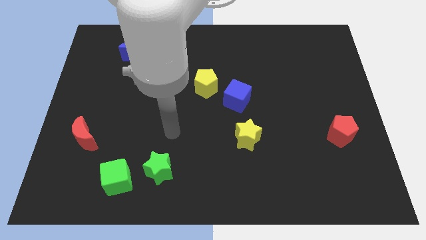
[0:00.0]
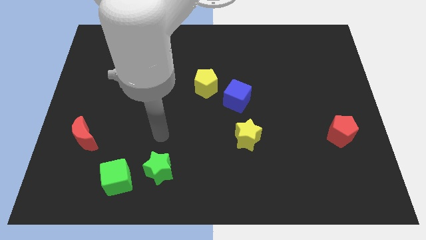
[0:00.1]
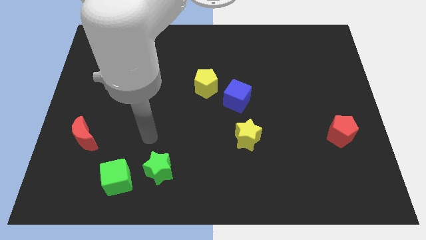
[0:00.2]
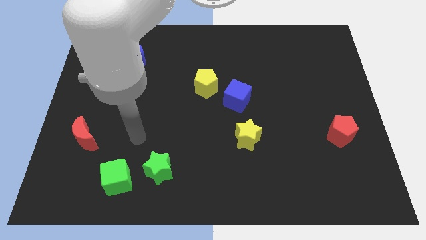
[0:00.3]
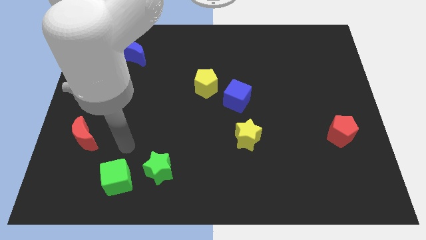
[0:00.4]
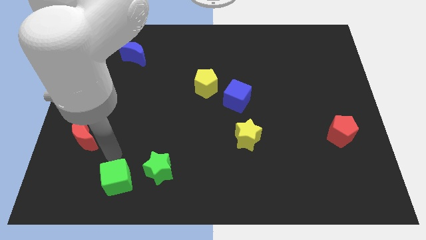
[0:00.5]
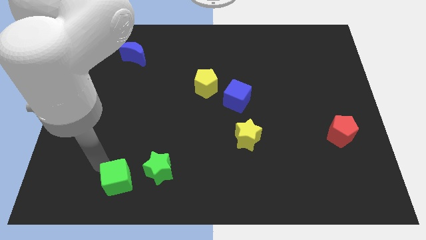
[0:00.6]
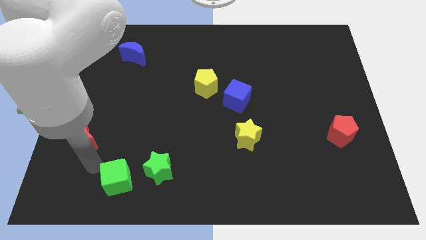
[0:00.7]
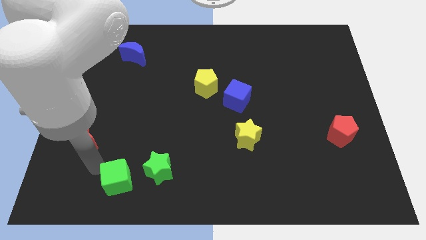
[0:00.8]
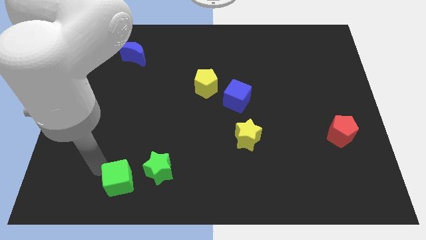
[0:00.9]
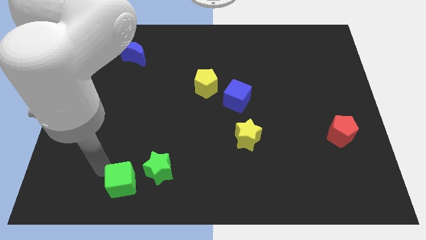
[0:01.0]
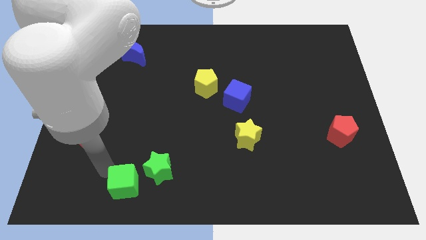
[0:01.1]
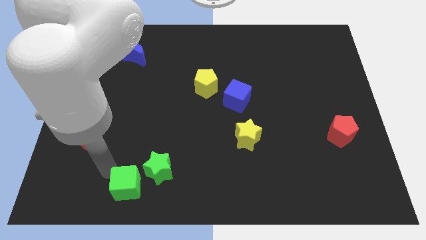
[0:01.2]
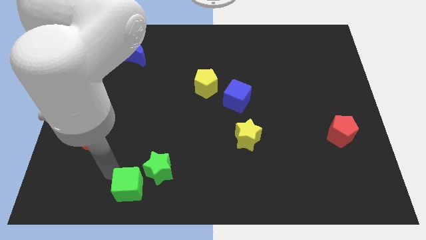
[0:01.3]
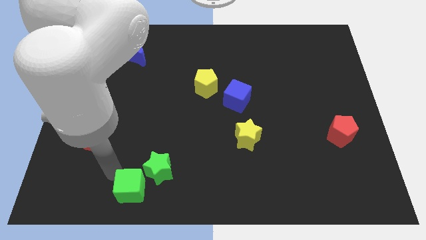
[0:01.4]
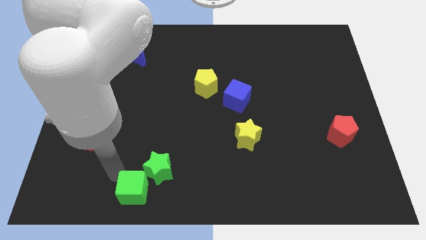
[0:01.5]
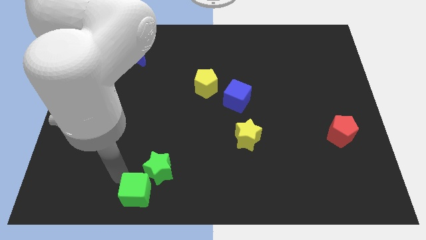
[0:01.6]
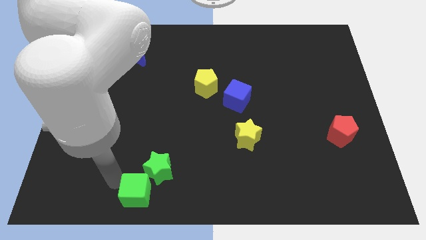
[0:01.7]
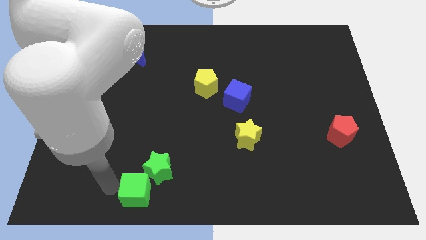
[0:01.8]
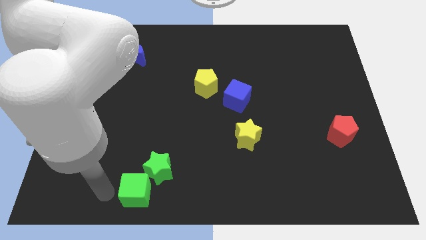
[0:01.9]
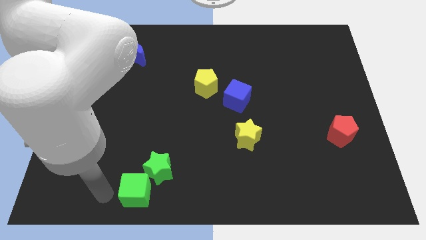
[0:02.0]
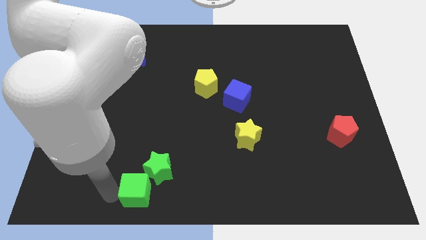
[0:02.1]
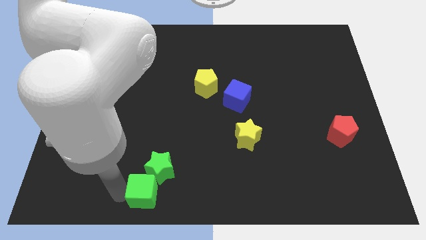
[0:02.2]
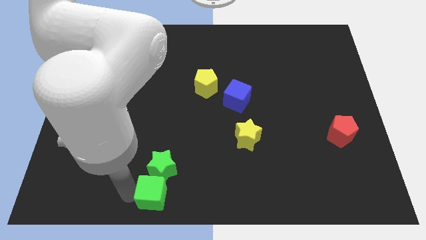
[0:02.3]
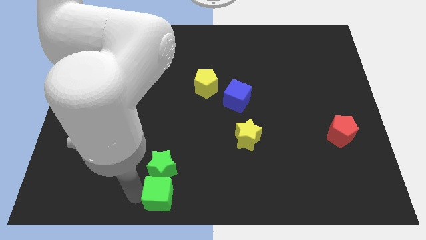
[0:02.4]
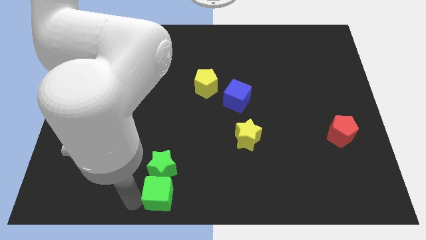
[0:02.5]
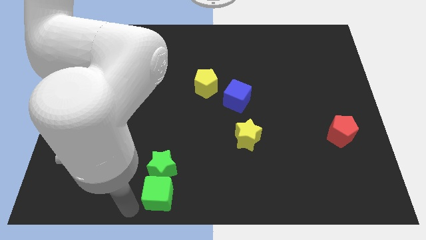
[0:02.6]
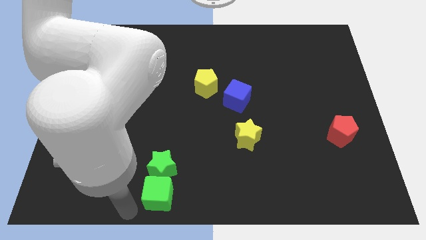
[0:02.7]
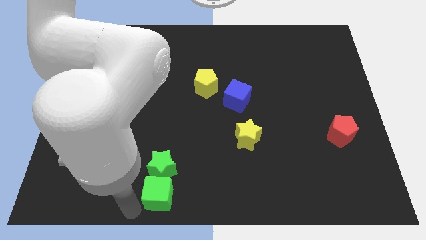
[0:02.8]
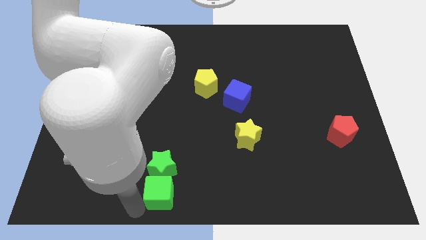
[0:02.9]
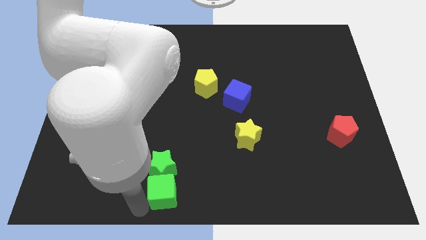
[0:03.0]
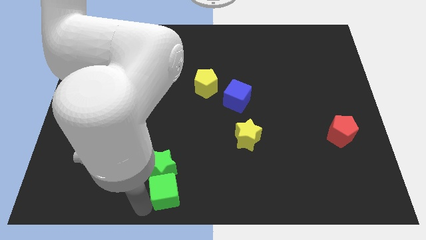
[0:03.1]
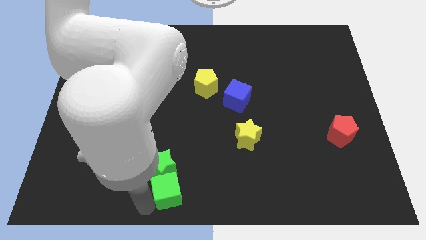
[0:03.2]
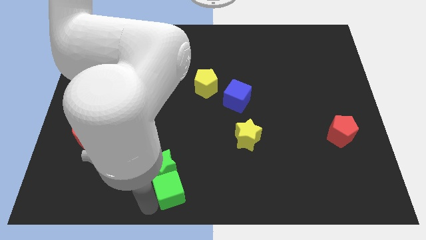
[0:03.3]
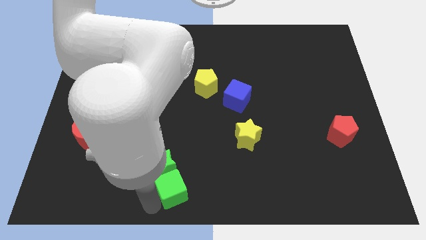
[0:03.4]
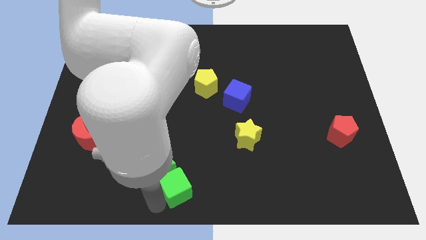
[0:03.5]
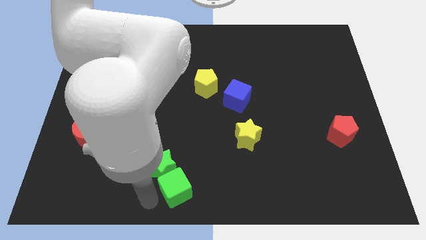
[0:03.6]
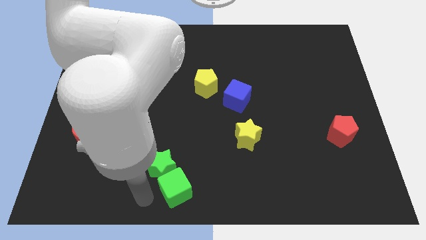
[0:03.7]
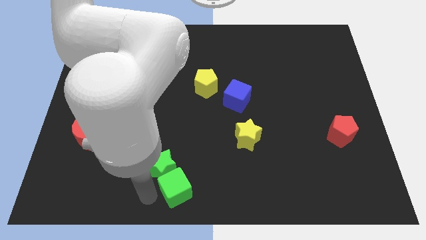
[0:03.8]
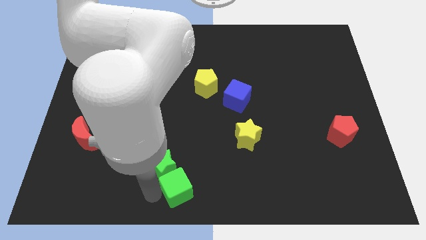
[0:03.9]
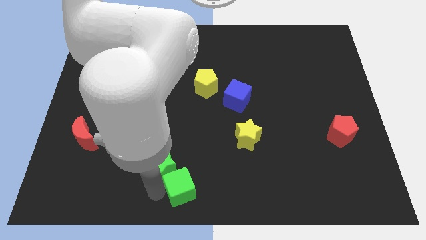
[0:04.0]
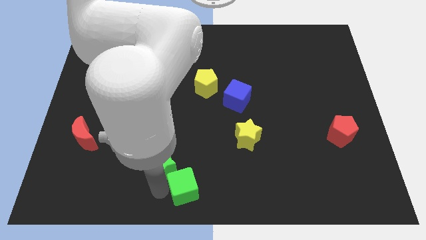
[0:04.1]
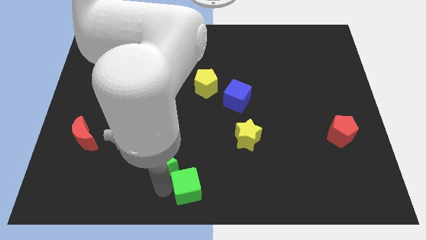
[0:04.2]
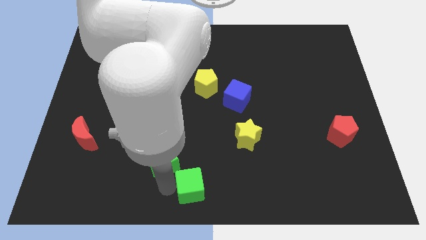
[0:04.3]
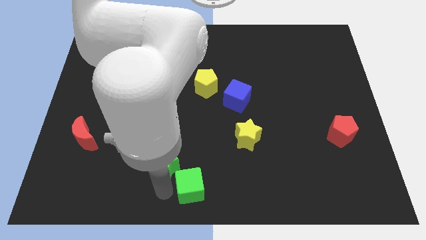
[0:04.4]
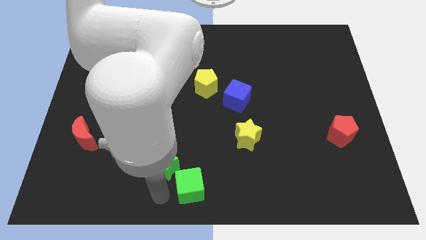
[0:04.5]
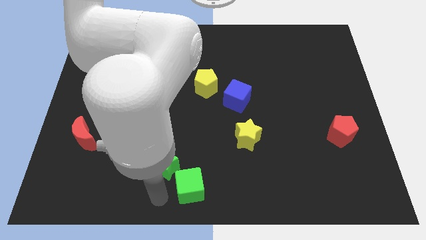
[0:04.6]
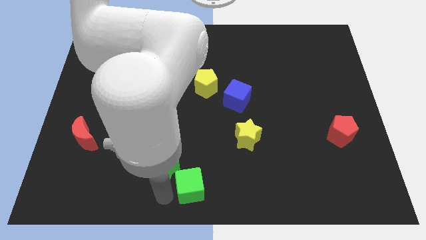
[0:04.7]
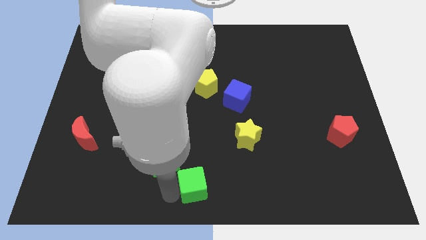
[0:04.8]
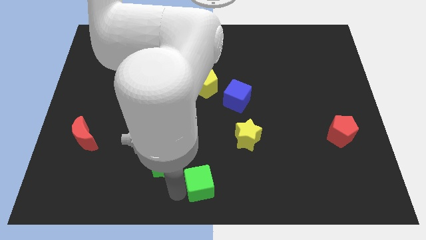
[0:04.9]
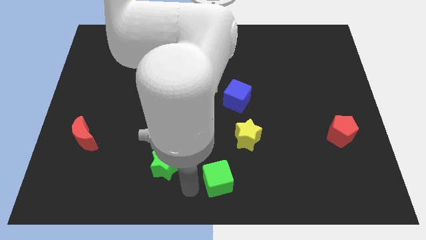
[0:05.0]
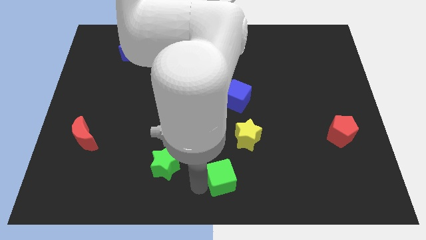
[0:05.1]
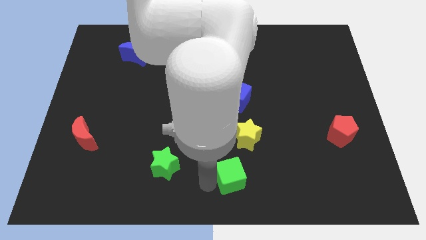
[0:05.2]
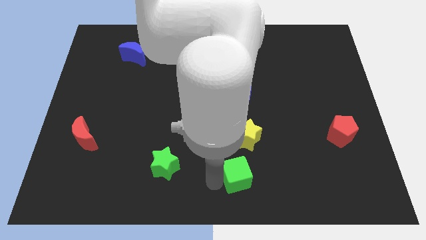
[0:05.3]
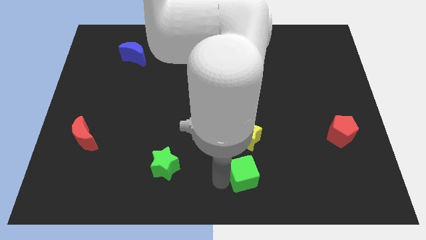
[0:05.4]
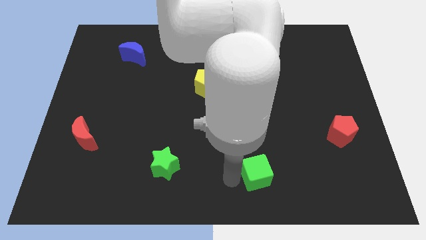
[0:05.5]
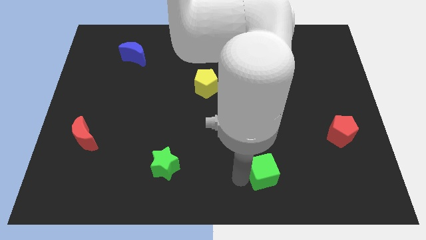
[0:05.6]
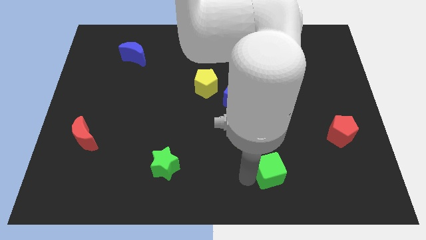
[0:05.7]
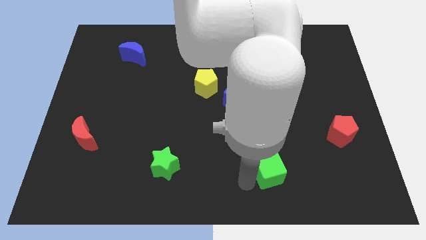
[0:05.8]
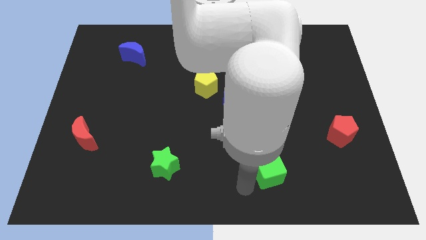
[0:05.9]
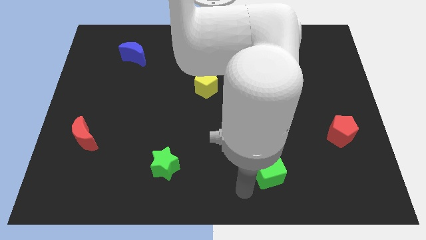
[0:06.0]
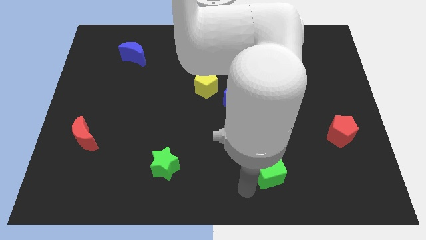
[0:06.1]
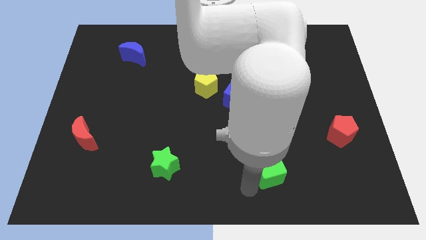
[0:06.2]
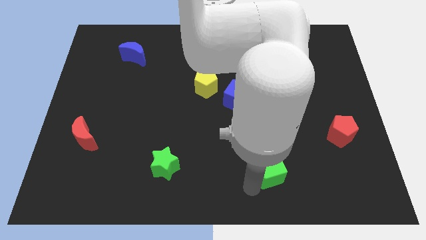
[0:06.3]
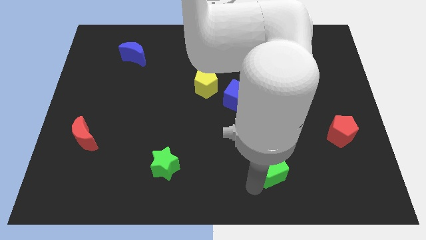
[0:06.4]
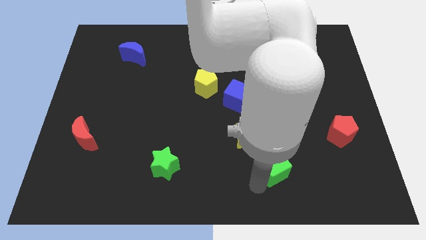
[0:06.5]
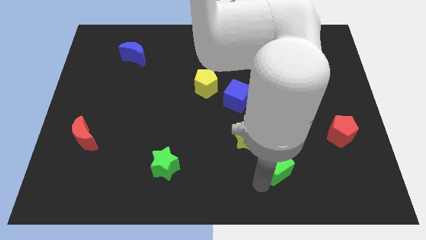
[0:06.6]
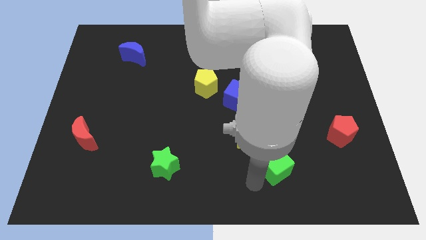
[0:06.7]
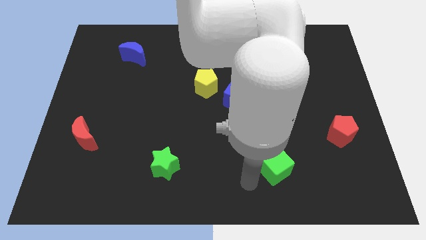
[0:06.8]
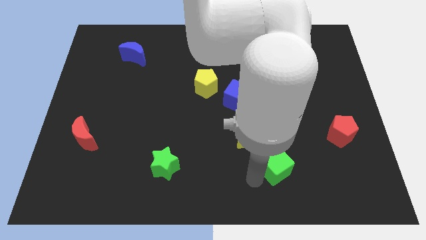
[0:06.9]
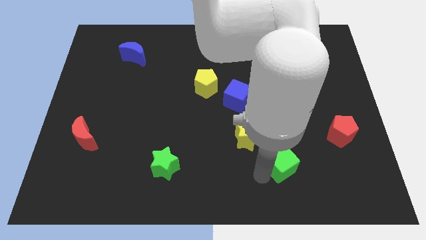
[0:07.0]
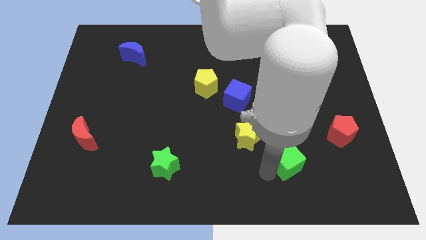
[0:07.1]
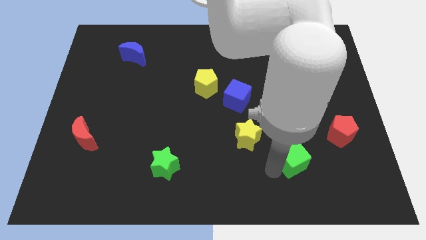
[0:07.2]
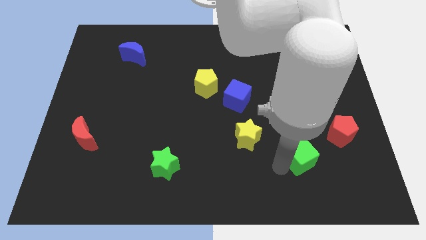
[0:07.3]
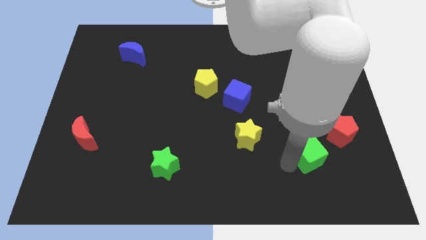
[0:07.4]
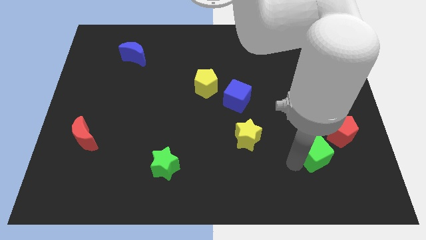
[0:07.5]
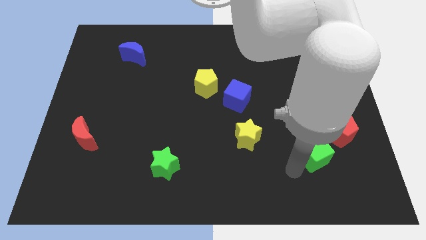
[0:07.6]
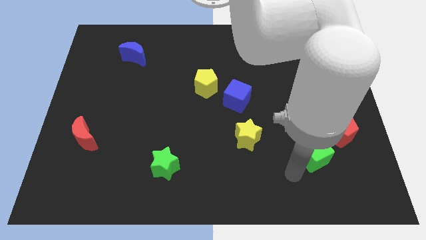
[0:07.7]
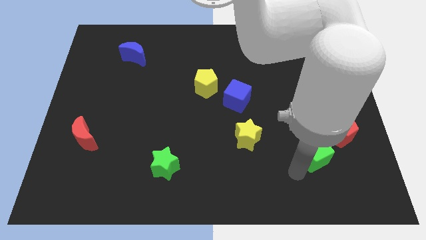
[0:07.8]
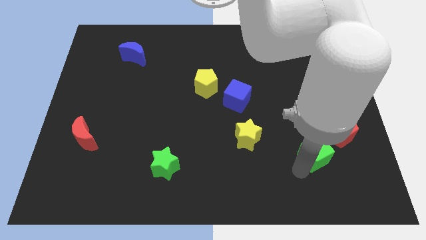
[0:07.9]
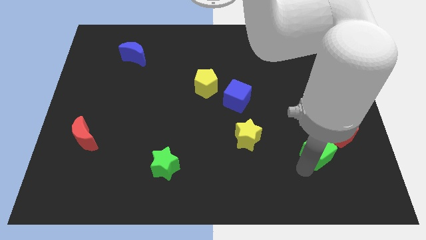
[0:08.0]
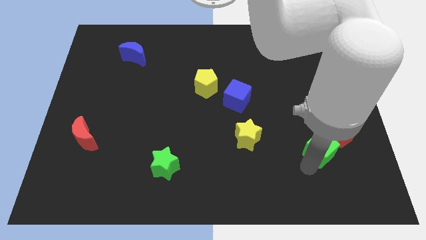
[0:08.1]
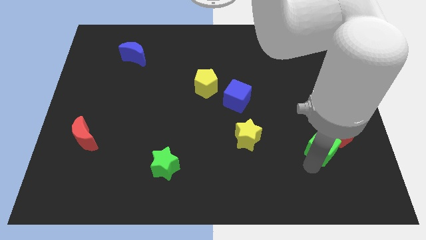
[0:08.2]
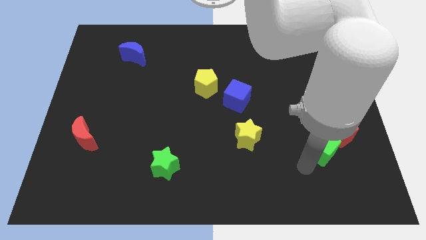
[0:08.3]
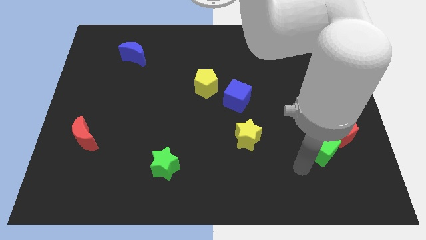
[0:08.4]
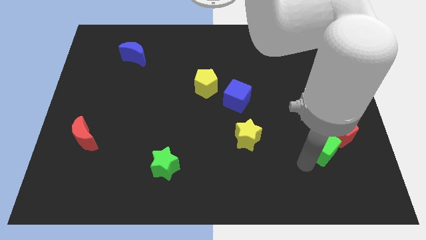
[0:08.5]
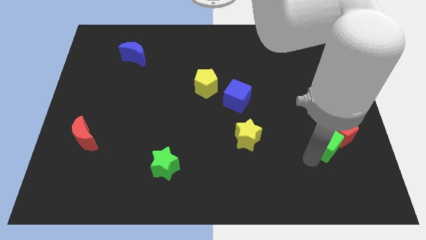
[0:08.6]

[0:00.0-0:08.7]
push the green cube to the red pentagon
